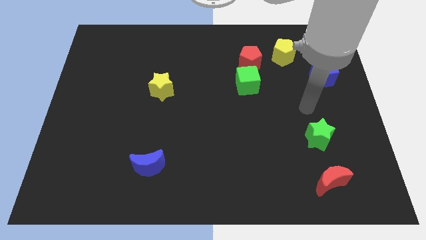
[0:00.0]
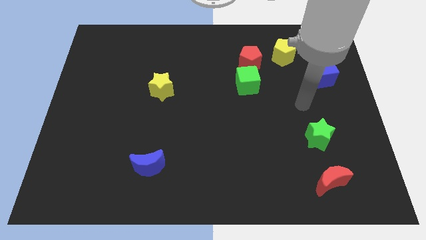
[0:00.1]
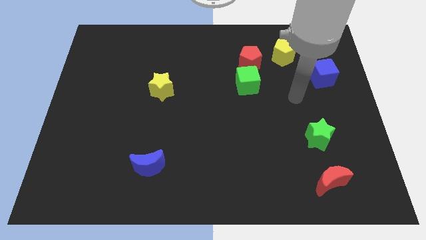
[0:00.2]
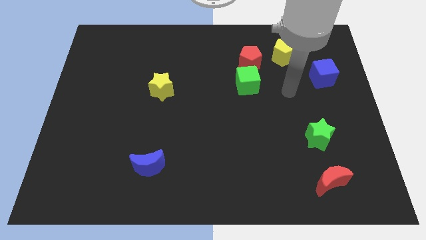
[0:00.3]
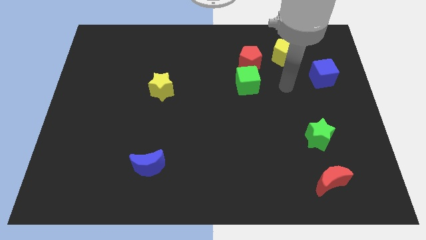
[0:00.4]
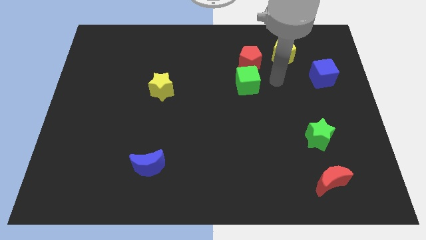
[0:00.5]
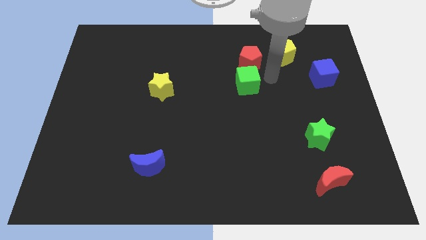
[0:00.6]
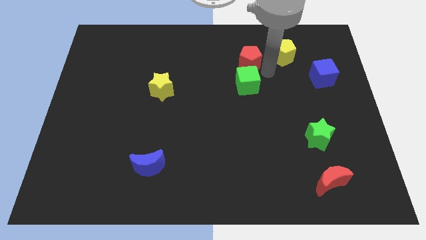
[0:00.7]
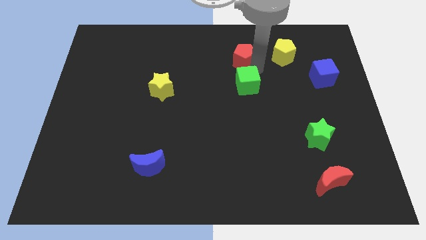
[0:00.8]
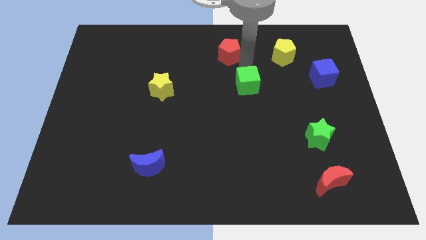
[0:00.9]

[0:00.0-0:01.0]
pull the green cube apart from the red pentagon

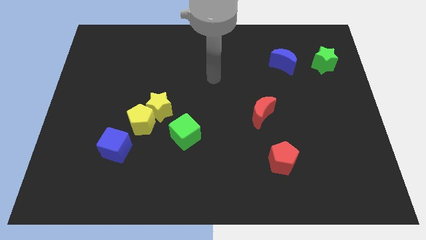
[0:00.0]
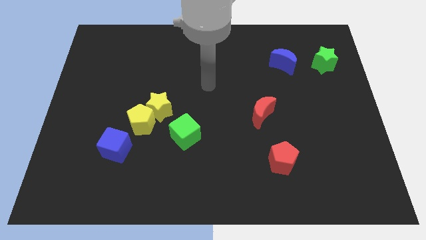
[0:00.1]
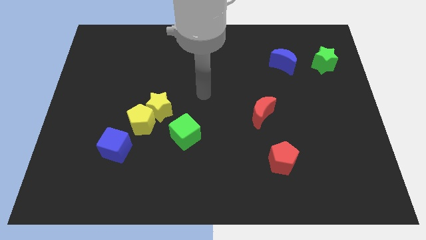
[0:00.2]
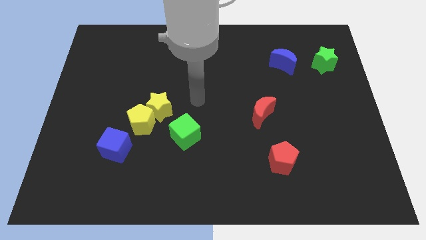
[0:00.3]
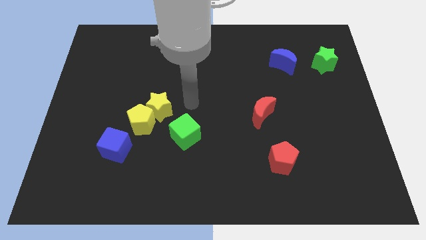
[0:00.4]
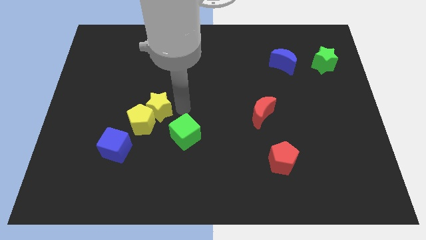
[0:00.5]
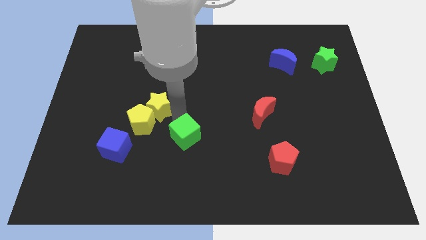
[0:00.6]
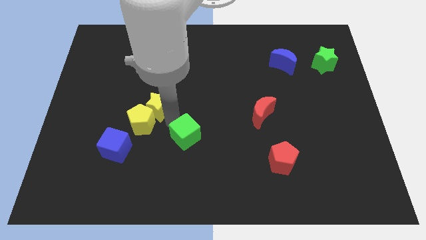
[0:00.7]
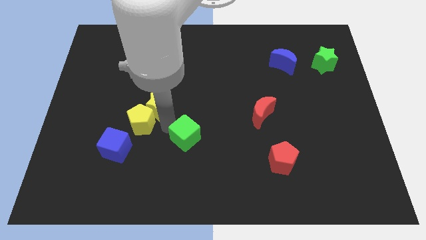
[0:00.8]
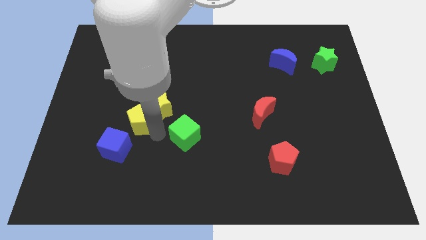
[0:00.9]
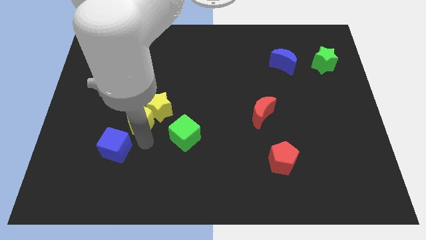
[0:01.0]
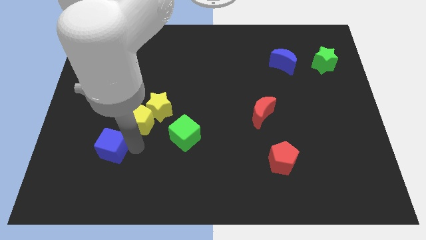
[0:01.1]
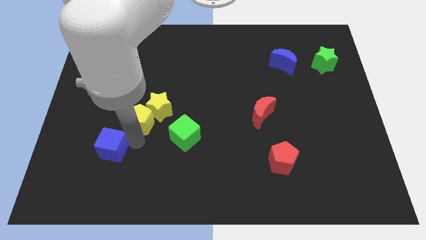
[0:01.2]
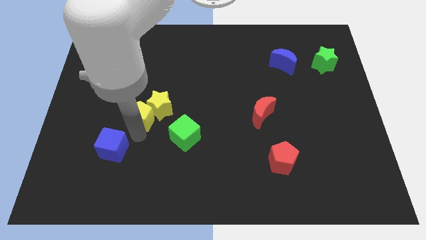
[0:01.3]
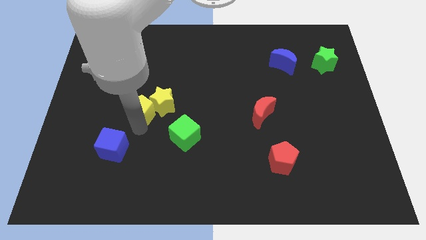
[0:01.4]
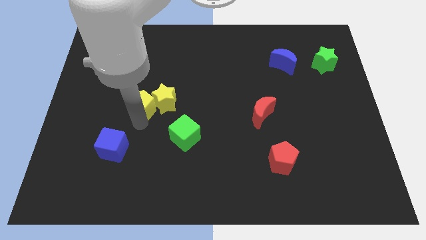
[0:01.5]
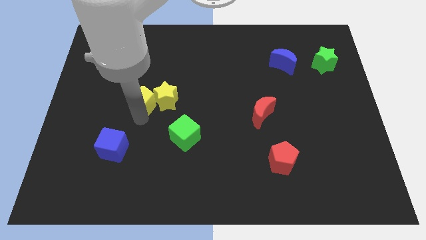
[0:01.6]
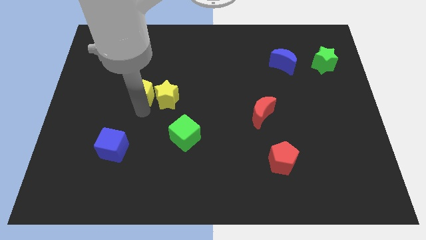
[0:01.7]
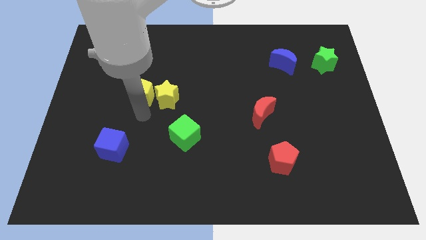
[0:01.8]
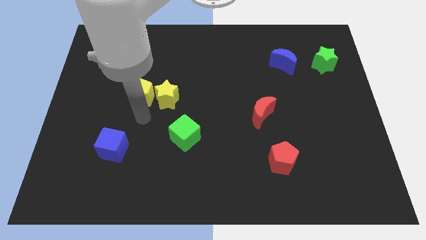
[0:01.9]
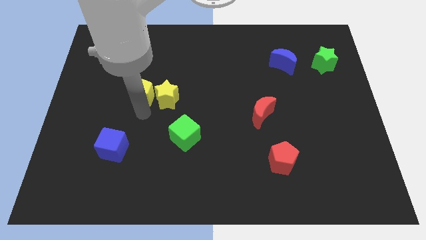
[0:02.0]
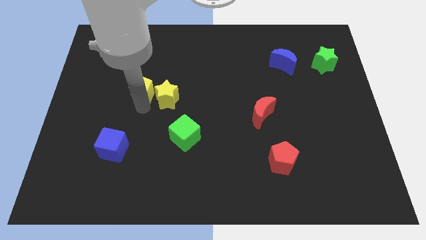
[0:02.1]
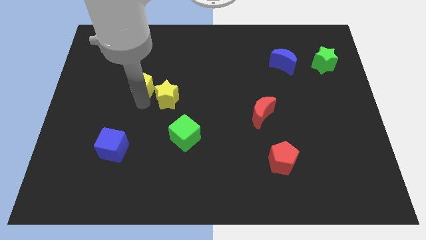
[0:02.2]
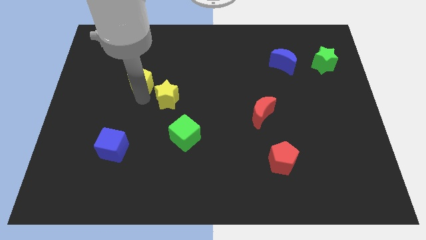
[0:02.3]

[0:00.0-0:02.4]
move the yellow pentagon away from the yellow star and blue cube

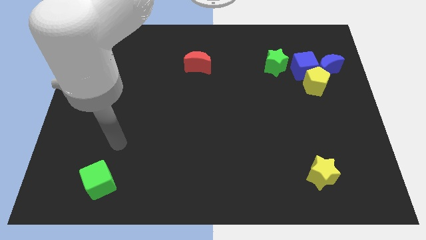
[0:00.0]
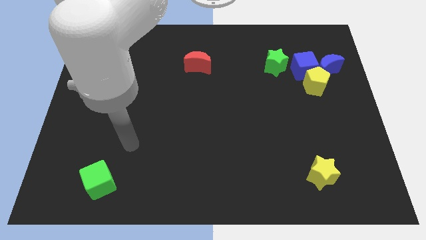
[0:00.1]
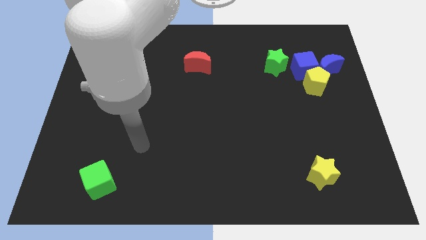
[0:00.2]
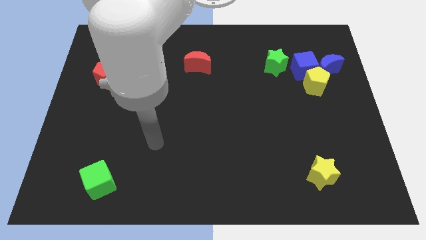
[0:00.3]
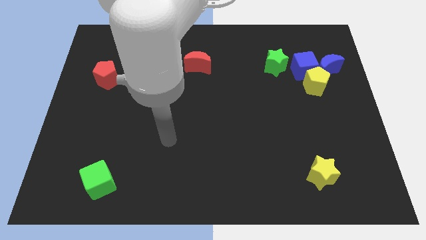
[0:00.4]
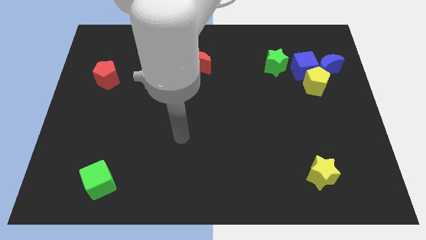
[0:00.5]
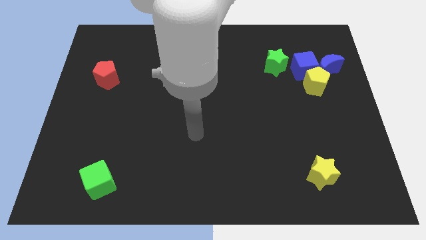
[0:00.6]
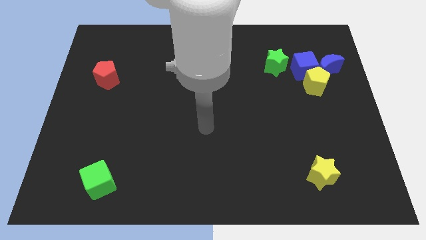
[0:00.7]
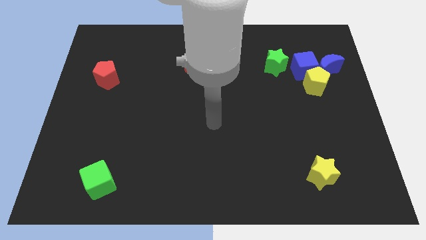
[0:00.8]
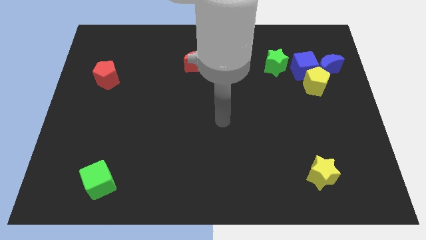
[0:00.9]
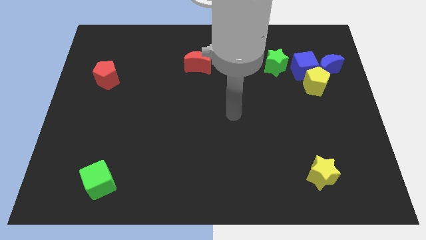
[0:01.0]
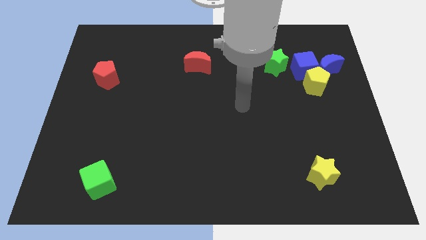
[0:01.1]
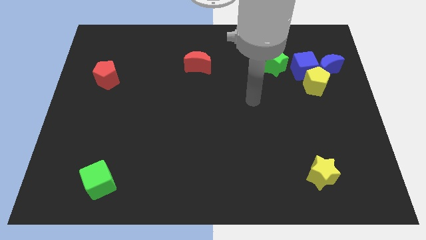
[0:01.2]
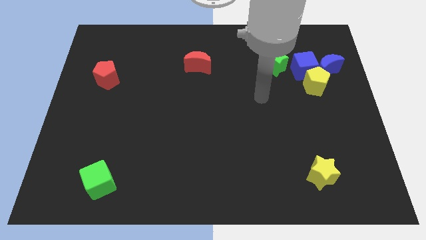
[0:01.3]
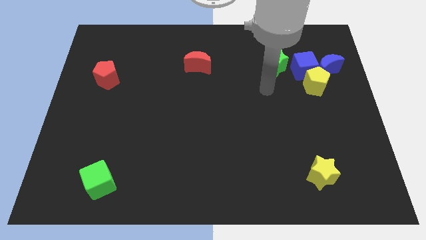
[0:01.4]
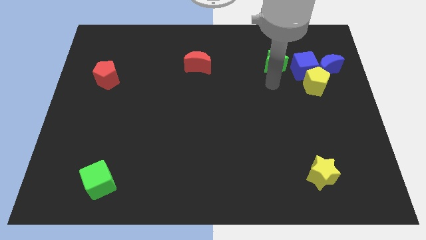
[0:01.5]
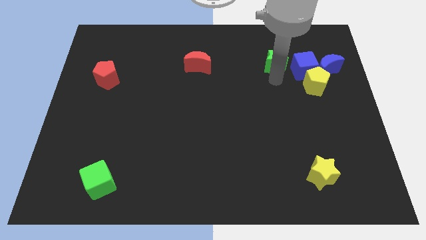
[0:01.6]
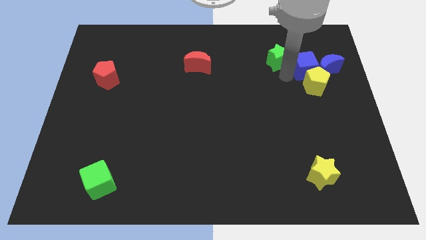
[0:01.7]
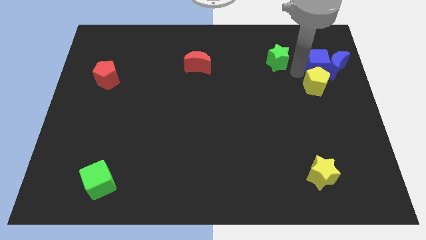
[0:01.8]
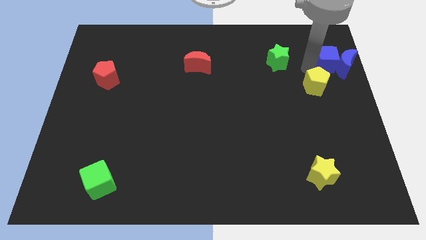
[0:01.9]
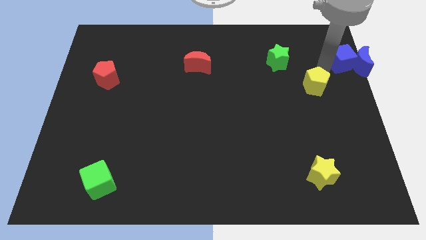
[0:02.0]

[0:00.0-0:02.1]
separate the yellow pentagon from the blue cube and blue moon

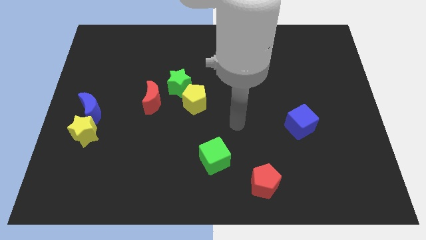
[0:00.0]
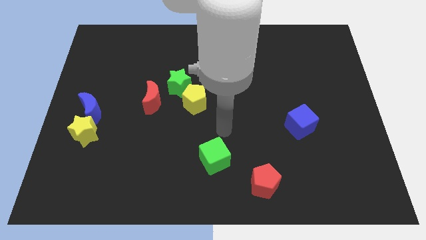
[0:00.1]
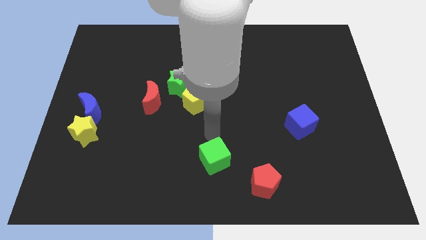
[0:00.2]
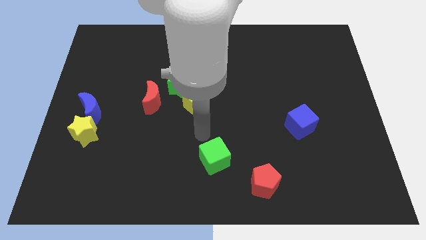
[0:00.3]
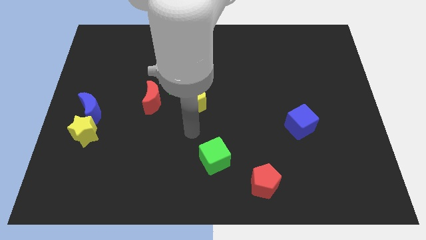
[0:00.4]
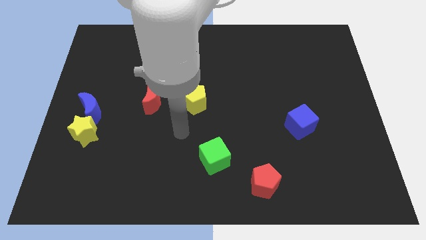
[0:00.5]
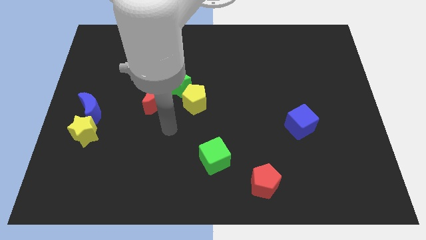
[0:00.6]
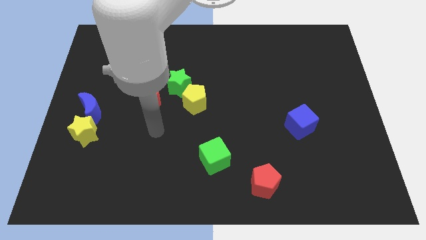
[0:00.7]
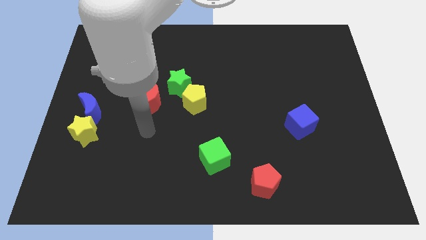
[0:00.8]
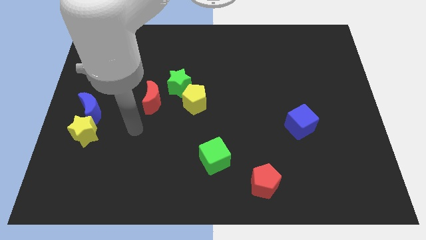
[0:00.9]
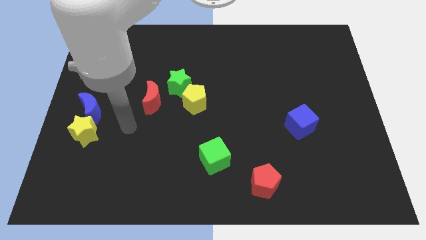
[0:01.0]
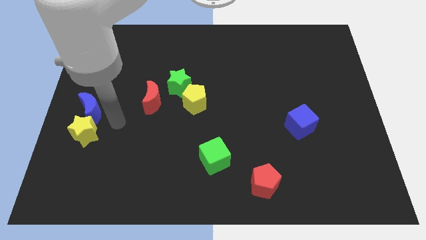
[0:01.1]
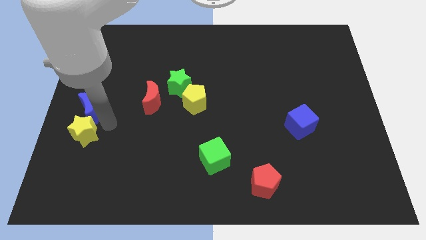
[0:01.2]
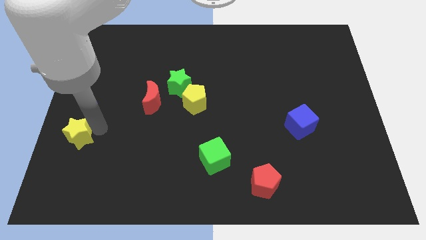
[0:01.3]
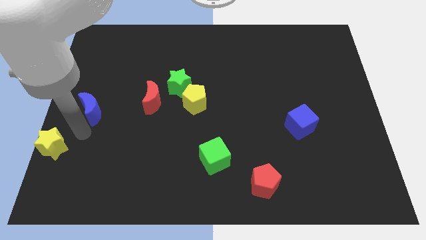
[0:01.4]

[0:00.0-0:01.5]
separate the blue moon from the yellow star

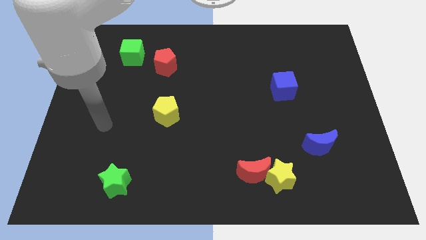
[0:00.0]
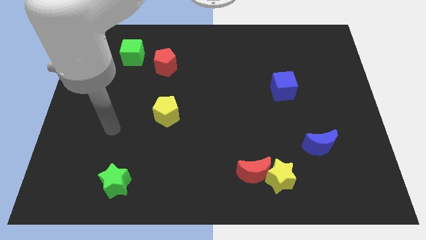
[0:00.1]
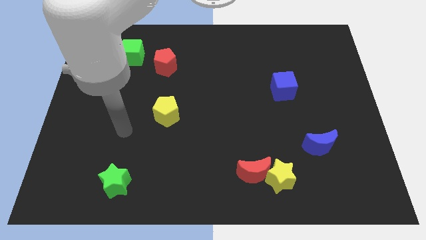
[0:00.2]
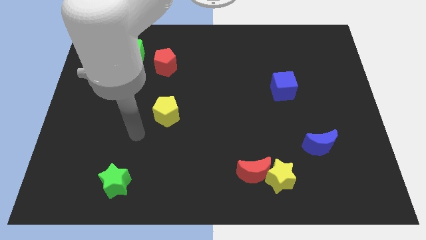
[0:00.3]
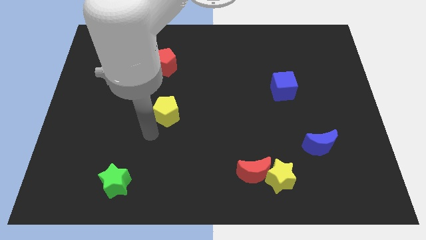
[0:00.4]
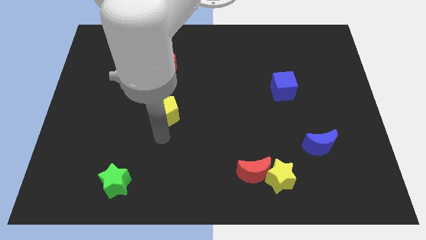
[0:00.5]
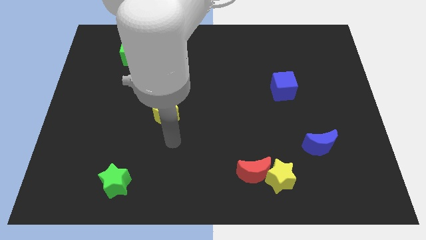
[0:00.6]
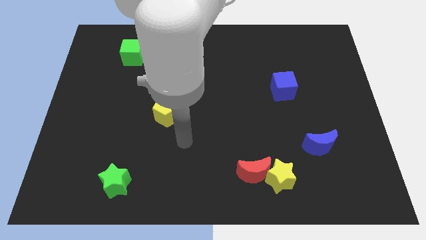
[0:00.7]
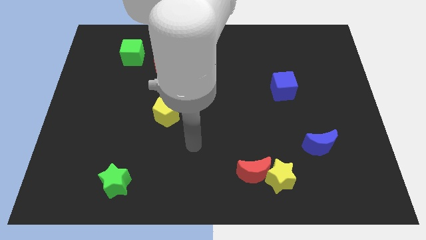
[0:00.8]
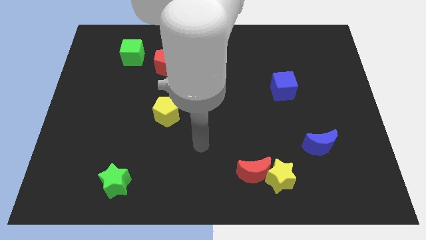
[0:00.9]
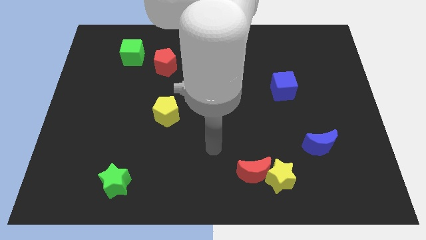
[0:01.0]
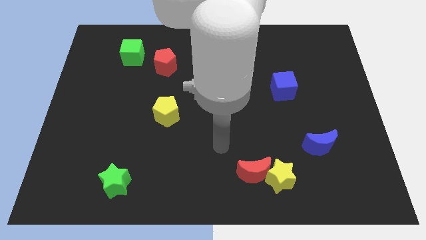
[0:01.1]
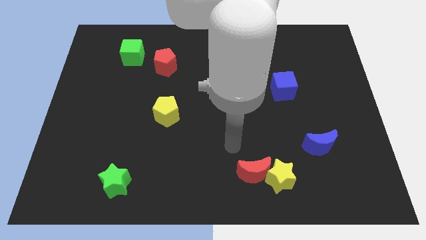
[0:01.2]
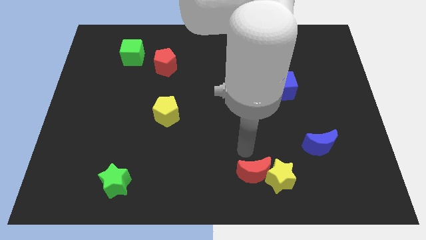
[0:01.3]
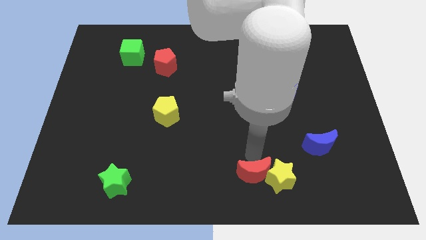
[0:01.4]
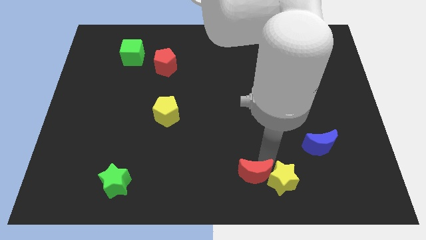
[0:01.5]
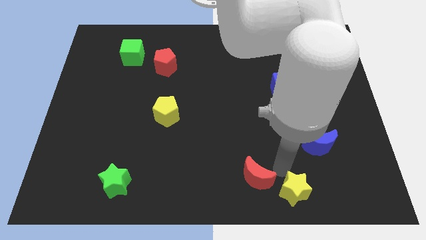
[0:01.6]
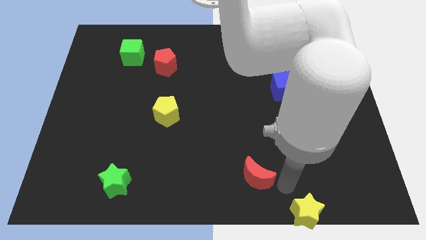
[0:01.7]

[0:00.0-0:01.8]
separate the red moon from the yellow star

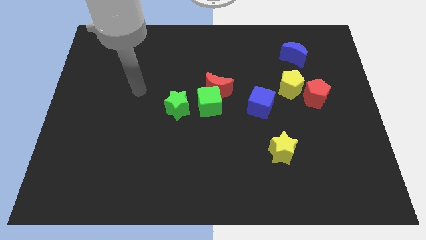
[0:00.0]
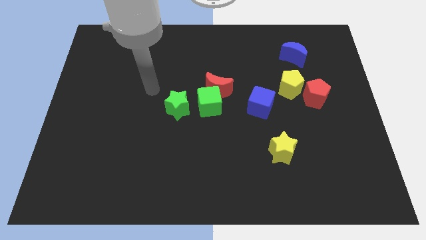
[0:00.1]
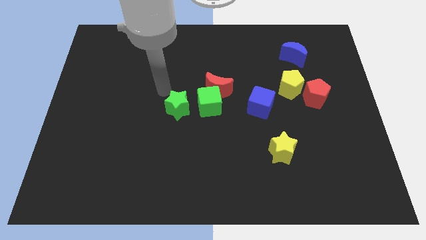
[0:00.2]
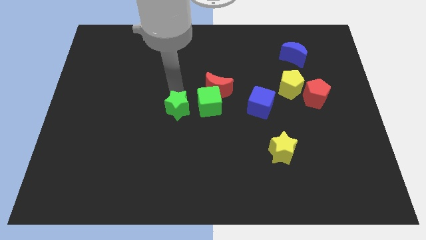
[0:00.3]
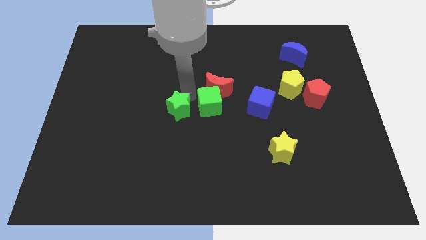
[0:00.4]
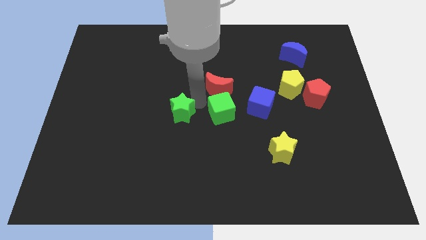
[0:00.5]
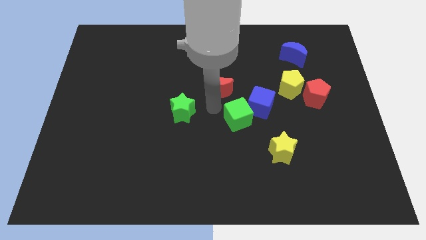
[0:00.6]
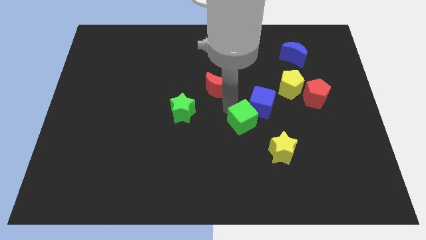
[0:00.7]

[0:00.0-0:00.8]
pull the red moon apart from the green cube
